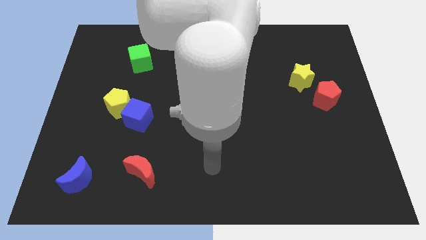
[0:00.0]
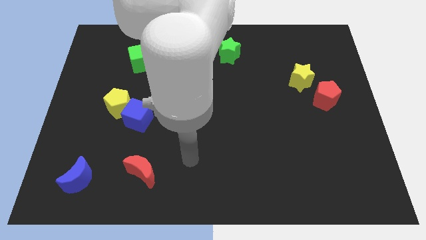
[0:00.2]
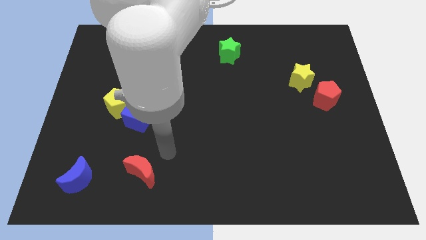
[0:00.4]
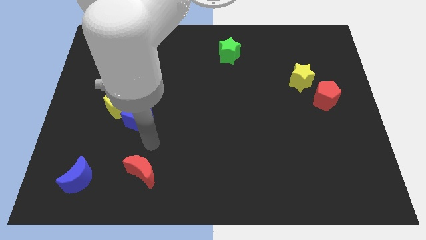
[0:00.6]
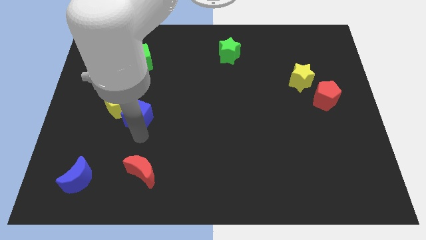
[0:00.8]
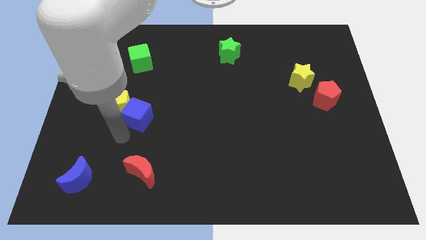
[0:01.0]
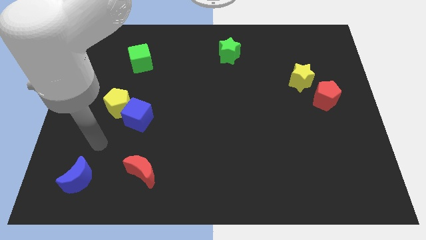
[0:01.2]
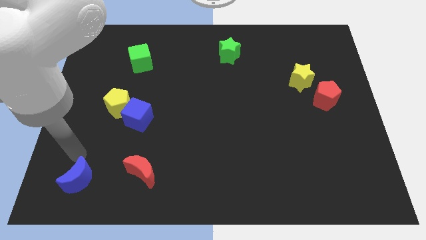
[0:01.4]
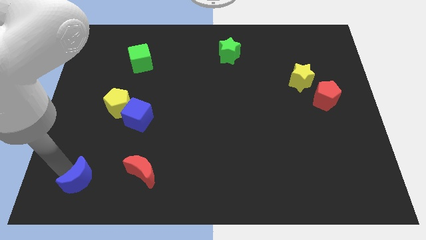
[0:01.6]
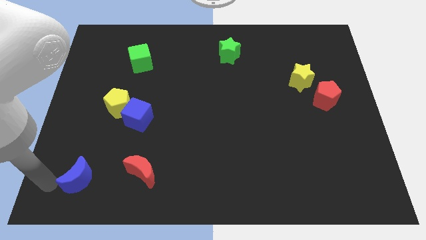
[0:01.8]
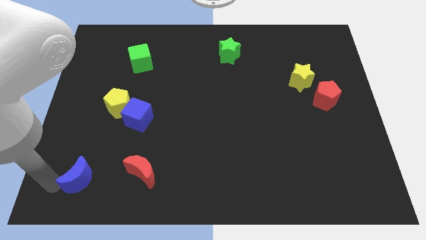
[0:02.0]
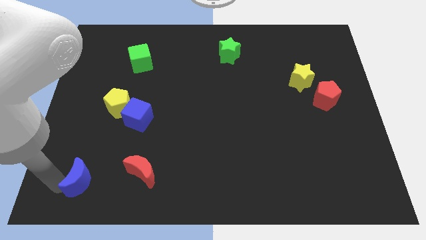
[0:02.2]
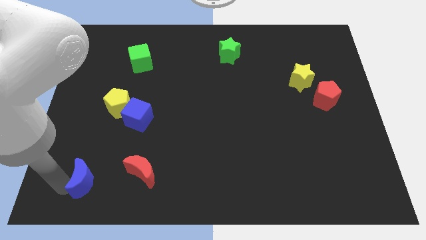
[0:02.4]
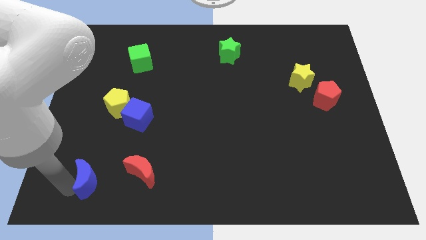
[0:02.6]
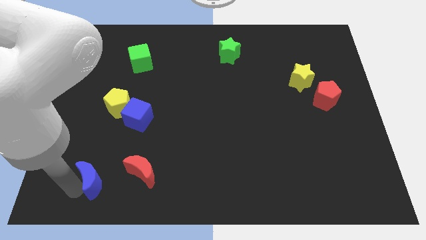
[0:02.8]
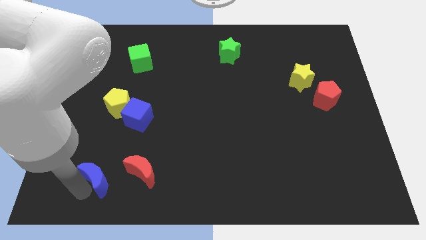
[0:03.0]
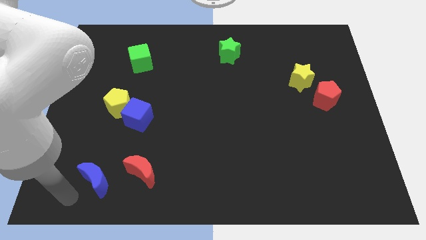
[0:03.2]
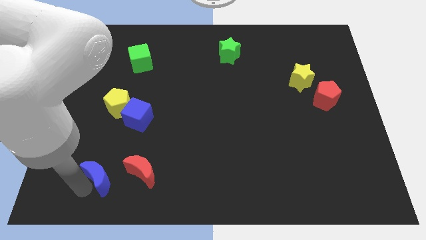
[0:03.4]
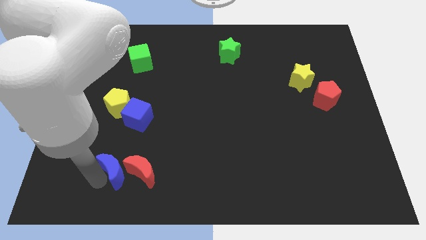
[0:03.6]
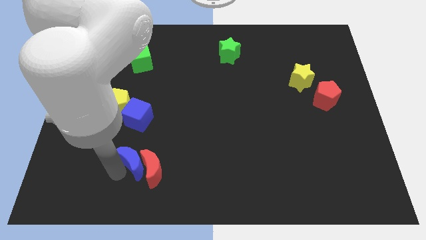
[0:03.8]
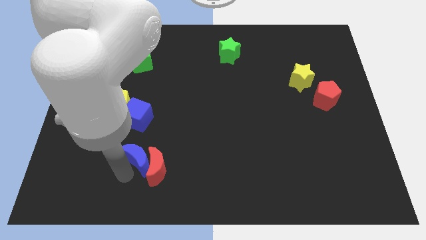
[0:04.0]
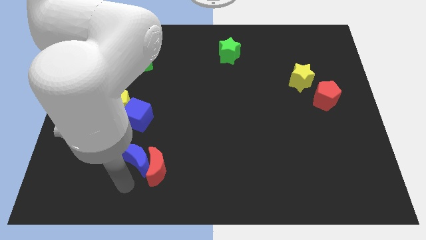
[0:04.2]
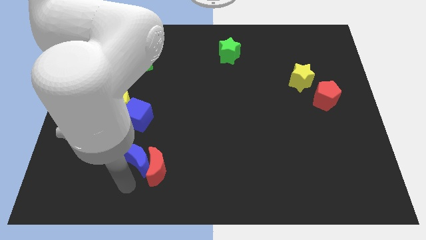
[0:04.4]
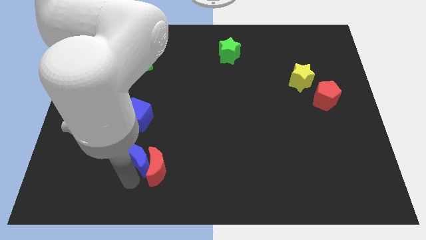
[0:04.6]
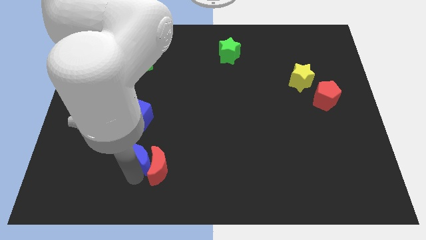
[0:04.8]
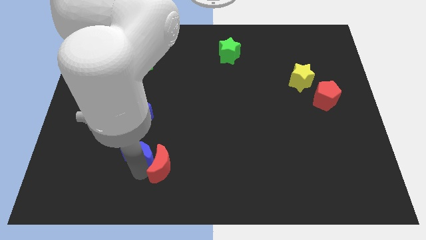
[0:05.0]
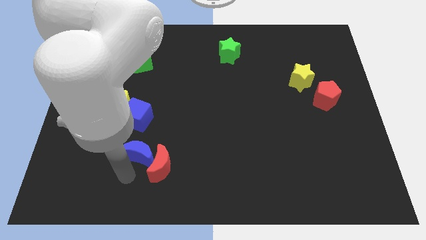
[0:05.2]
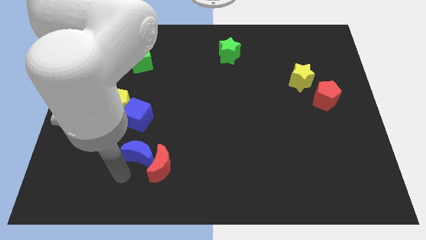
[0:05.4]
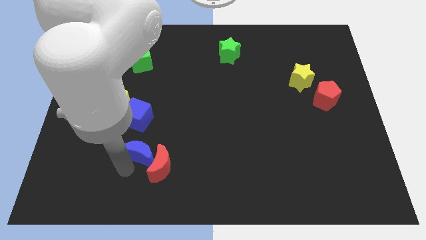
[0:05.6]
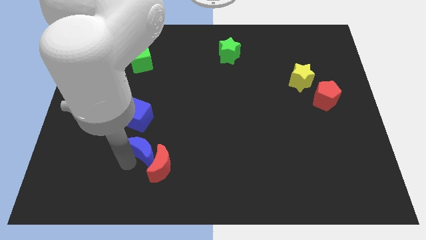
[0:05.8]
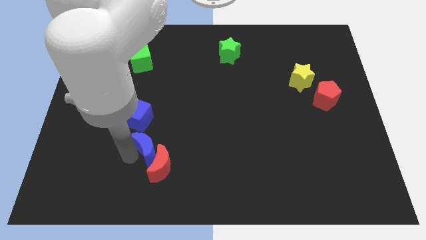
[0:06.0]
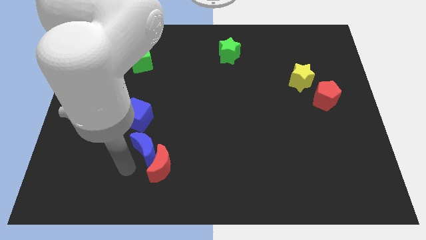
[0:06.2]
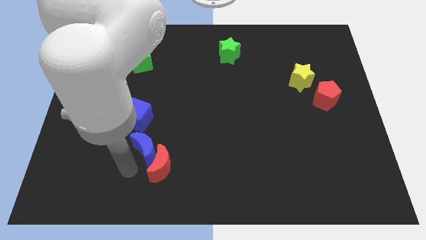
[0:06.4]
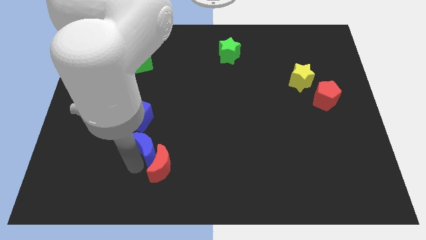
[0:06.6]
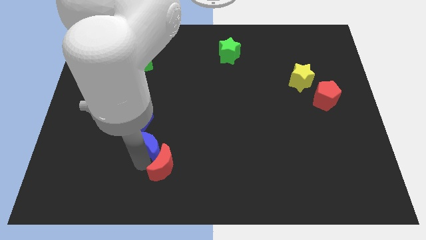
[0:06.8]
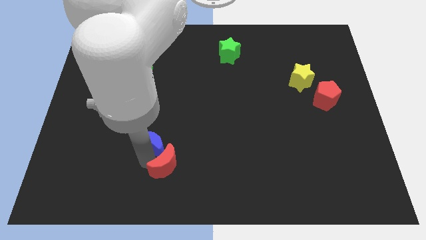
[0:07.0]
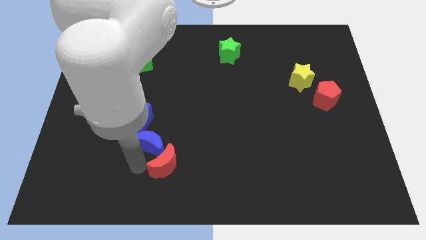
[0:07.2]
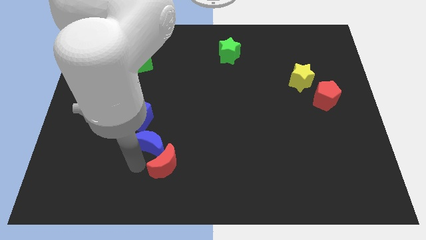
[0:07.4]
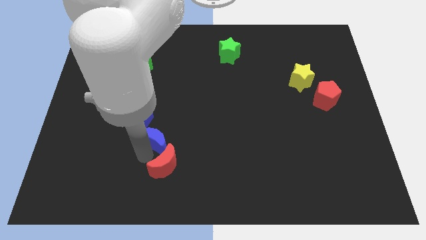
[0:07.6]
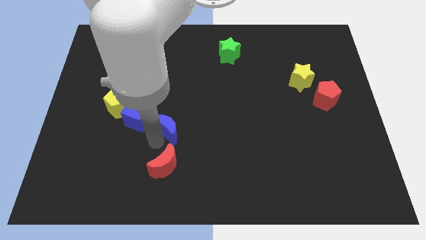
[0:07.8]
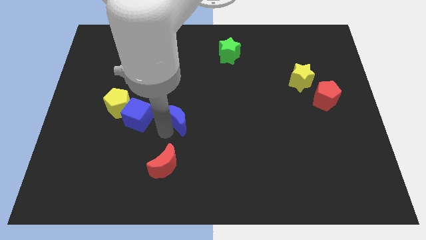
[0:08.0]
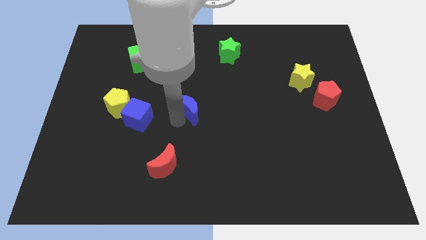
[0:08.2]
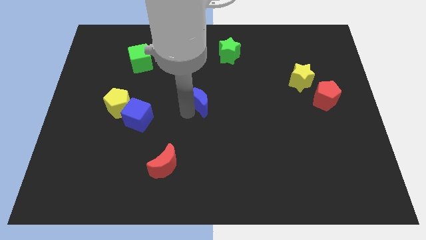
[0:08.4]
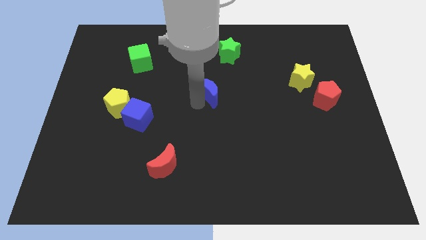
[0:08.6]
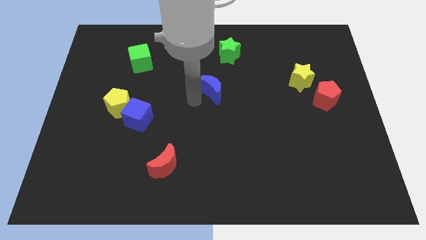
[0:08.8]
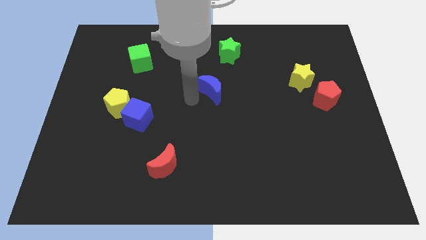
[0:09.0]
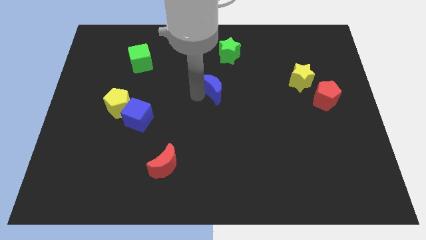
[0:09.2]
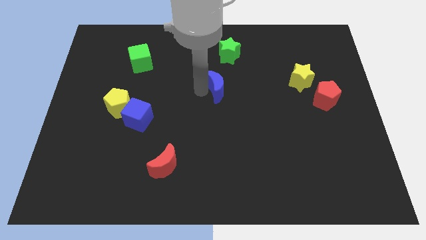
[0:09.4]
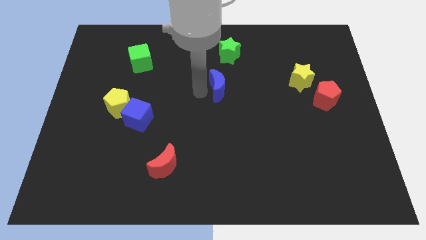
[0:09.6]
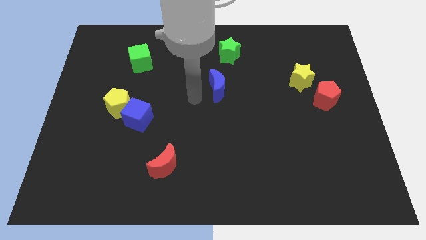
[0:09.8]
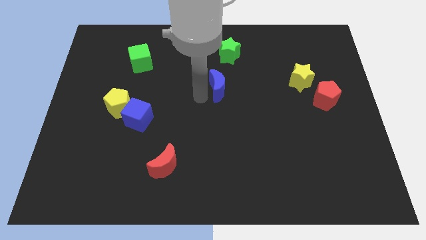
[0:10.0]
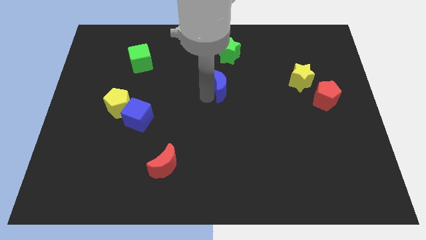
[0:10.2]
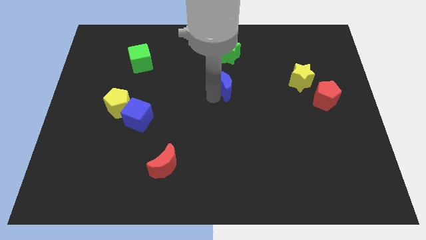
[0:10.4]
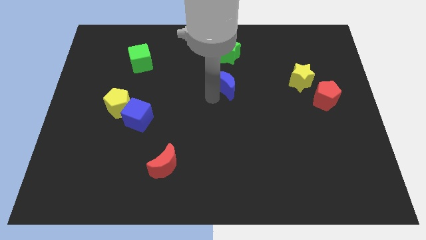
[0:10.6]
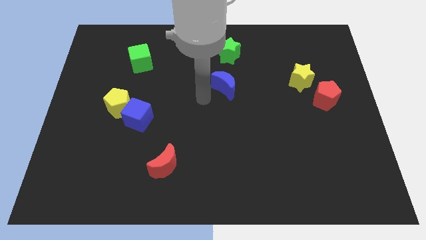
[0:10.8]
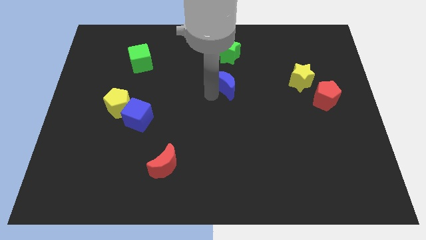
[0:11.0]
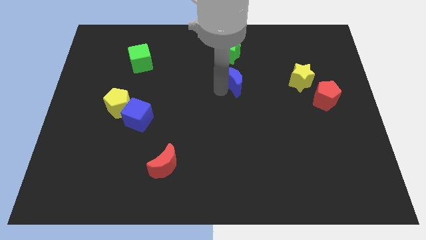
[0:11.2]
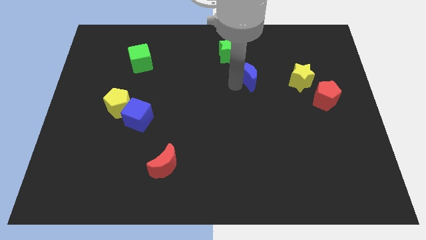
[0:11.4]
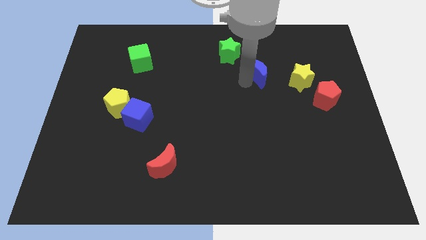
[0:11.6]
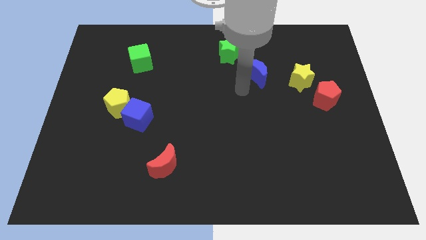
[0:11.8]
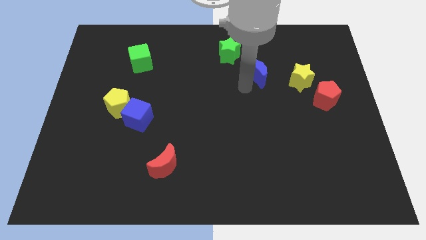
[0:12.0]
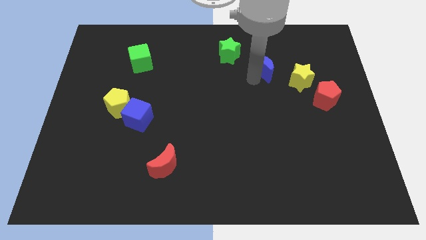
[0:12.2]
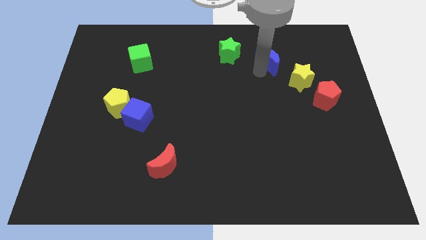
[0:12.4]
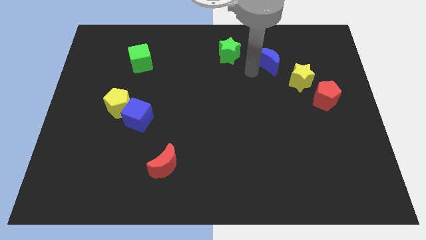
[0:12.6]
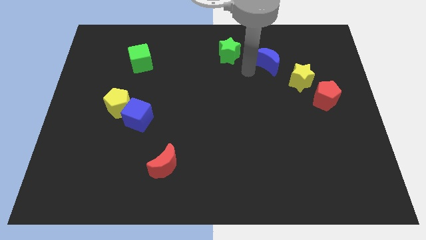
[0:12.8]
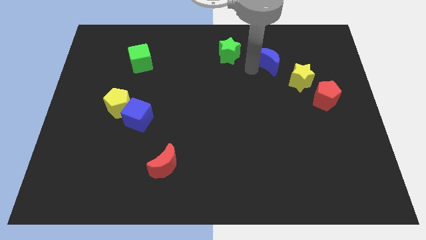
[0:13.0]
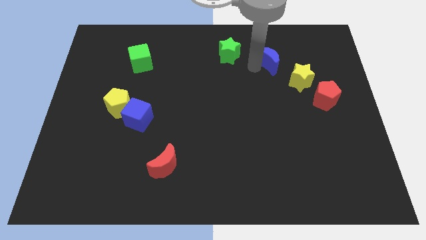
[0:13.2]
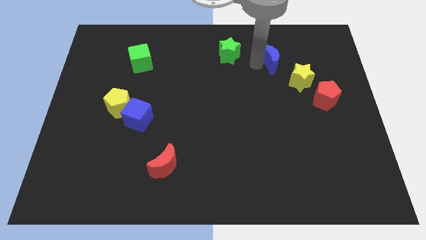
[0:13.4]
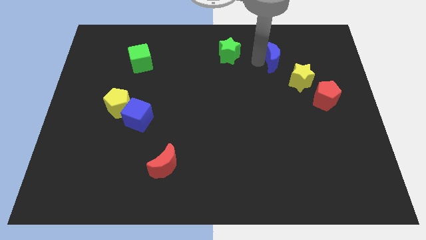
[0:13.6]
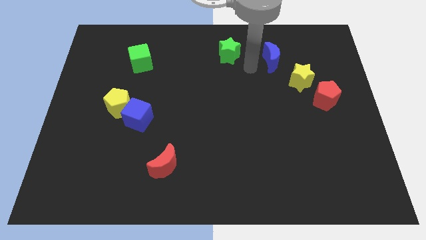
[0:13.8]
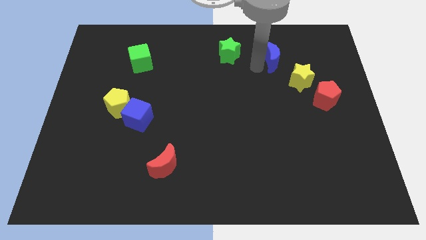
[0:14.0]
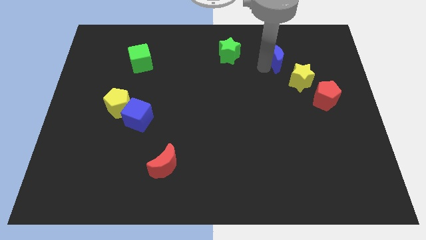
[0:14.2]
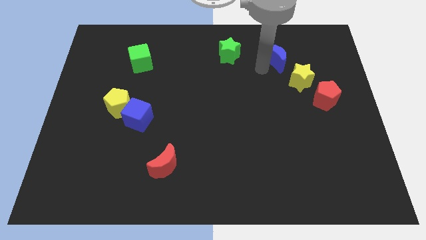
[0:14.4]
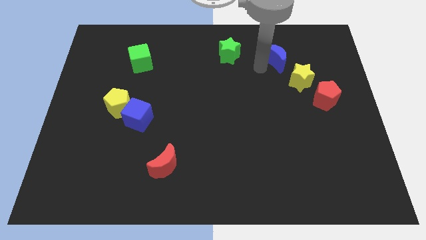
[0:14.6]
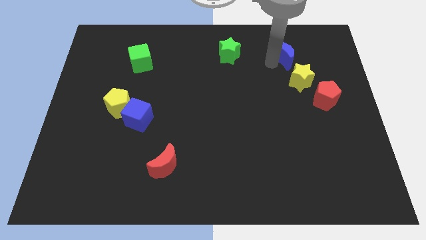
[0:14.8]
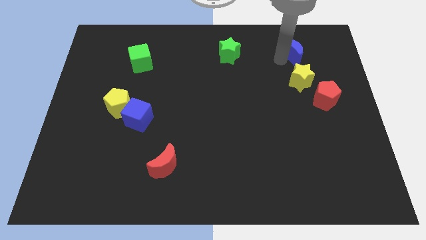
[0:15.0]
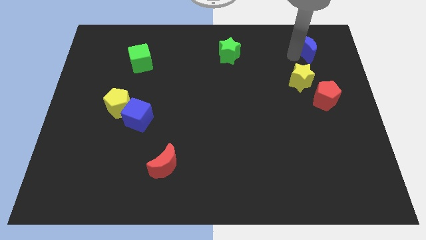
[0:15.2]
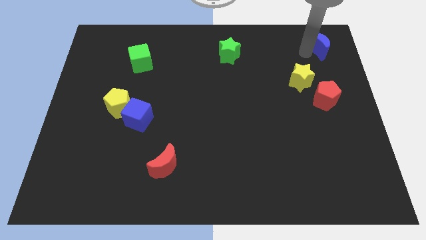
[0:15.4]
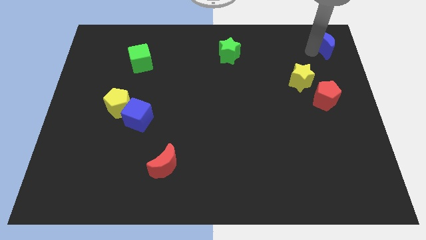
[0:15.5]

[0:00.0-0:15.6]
move the blue moon to the upper right corner
